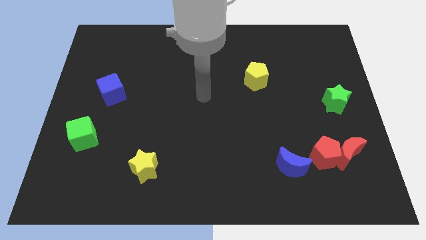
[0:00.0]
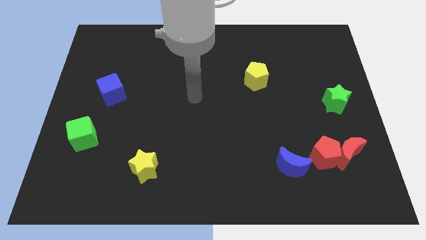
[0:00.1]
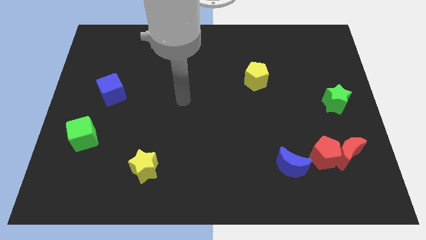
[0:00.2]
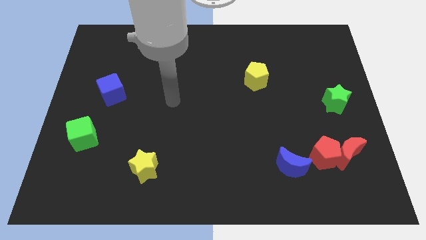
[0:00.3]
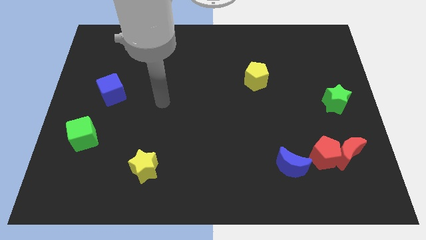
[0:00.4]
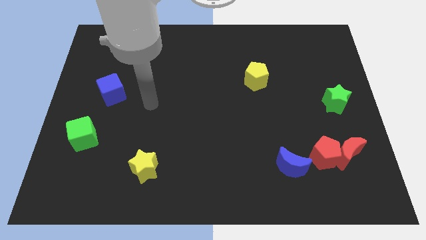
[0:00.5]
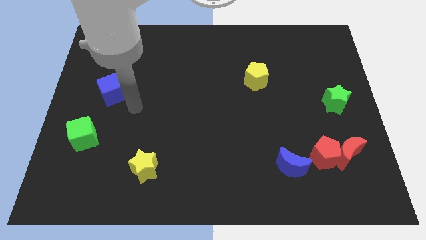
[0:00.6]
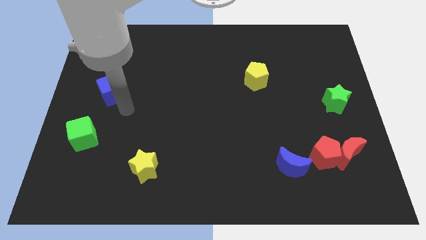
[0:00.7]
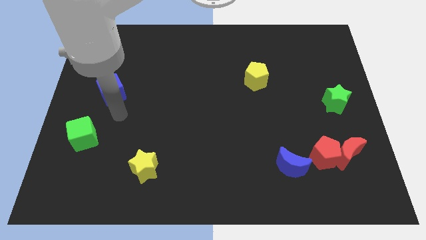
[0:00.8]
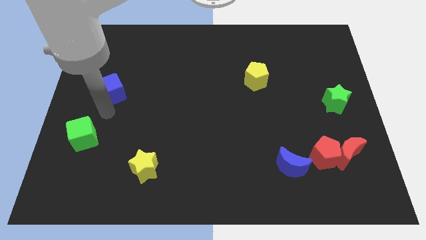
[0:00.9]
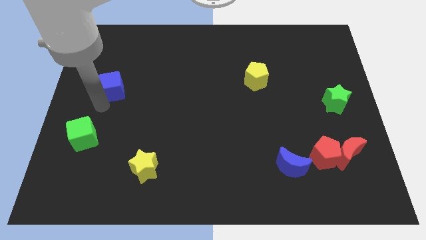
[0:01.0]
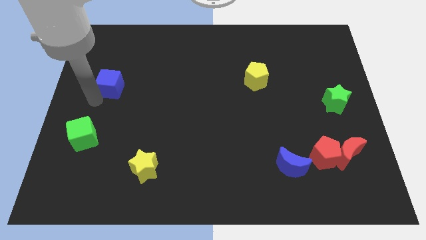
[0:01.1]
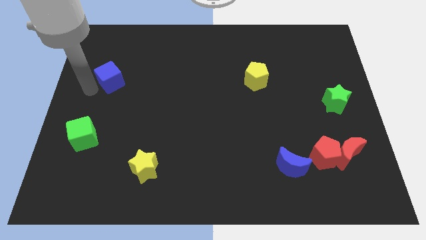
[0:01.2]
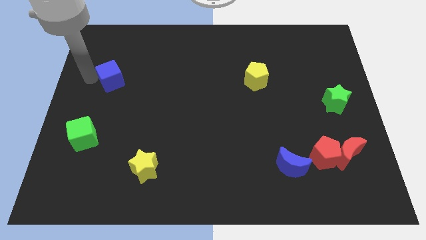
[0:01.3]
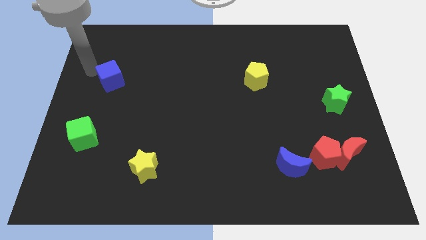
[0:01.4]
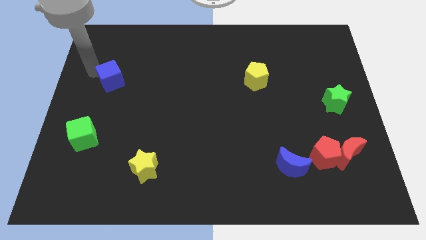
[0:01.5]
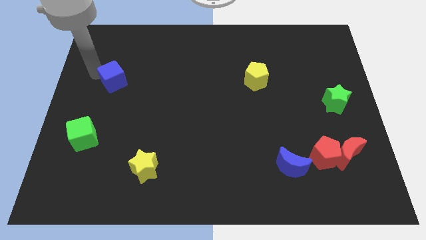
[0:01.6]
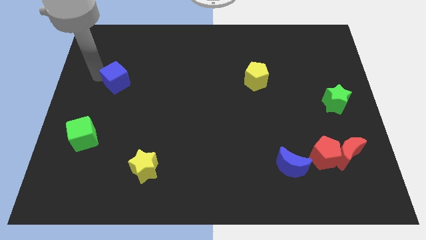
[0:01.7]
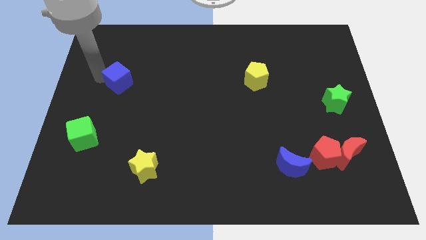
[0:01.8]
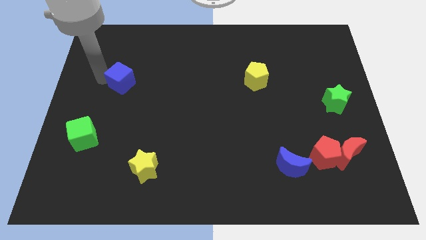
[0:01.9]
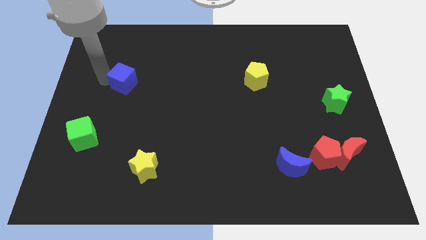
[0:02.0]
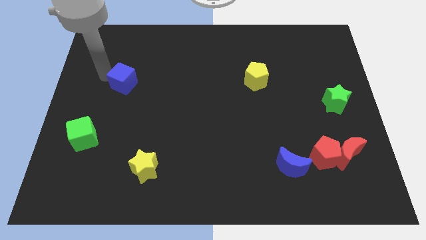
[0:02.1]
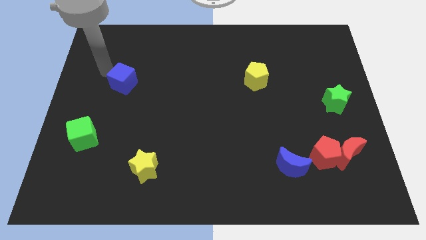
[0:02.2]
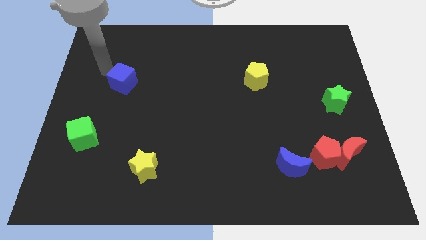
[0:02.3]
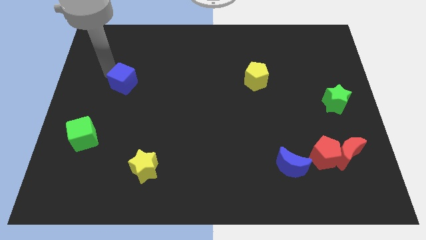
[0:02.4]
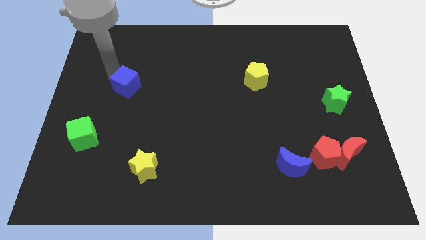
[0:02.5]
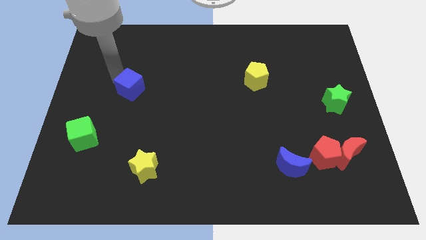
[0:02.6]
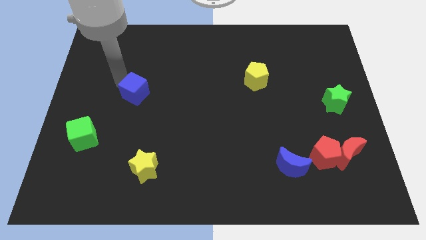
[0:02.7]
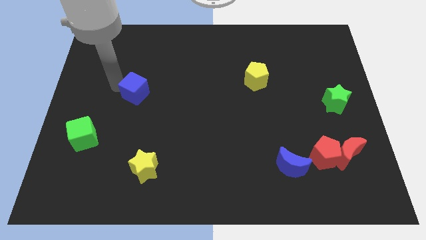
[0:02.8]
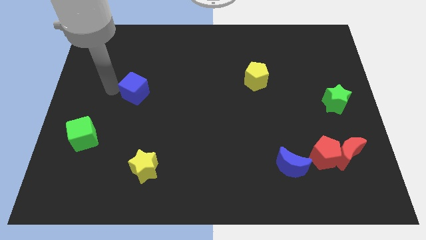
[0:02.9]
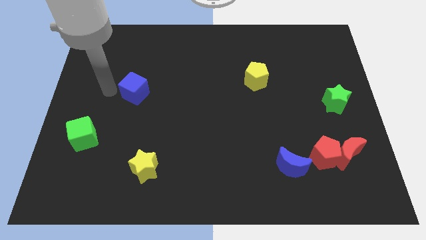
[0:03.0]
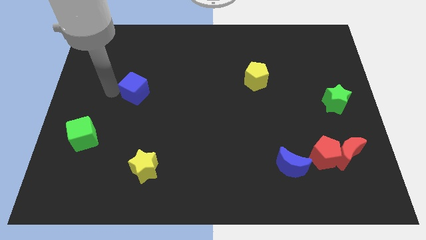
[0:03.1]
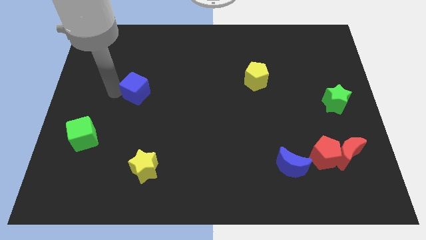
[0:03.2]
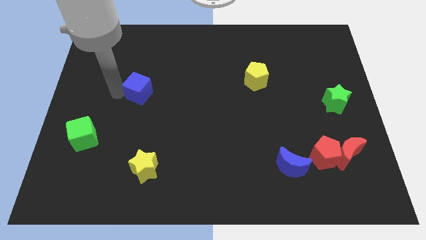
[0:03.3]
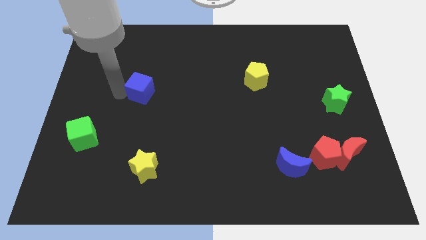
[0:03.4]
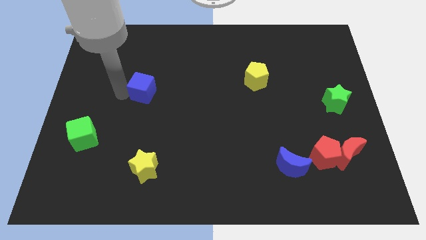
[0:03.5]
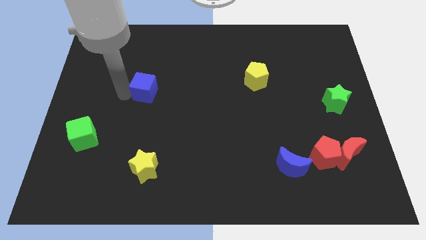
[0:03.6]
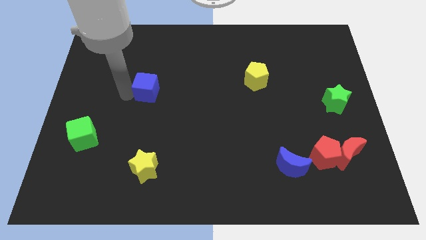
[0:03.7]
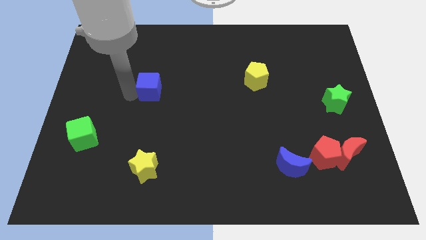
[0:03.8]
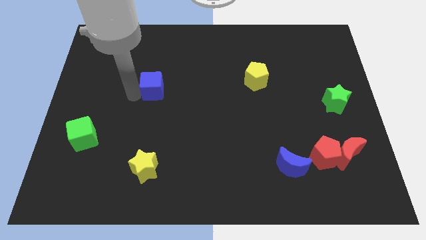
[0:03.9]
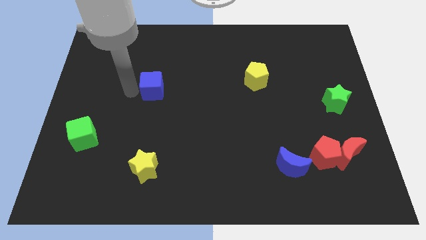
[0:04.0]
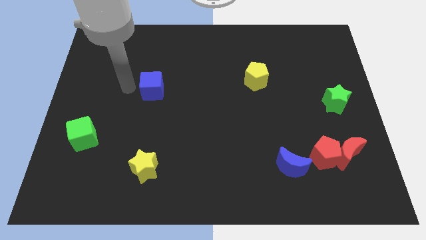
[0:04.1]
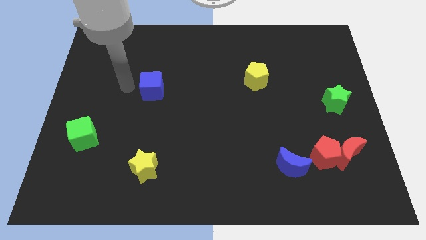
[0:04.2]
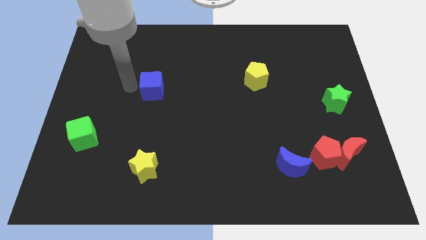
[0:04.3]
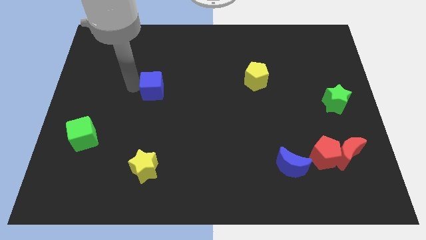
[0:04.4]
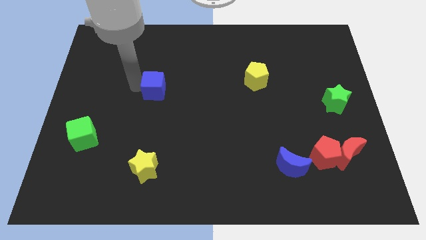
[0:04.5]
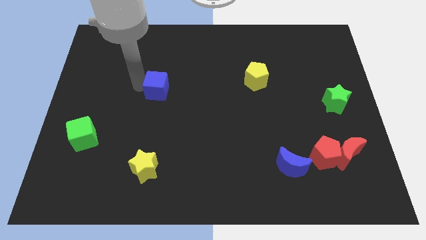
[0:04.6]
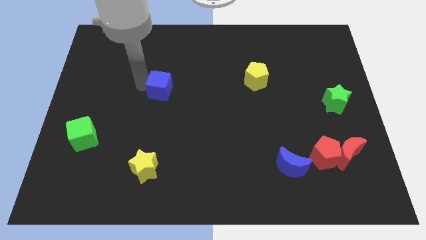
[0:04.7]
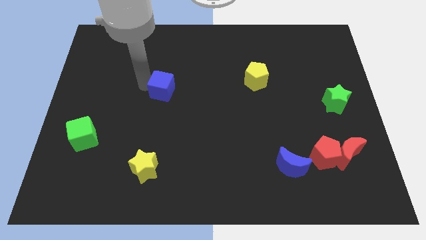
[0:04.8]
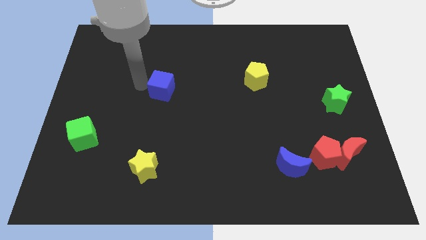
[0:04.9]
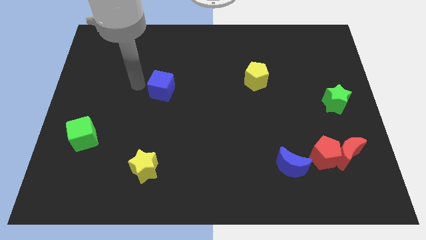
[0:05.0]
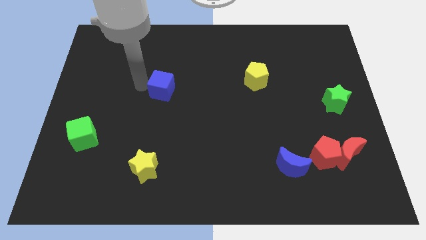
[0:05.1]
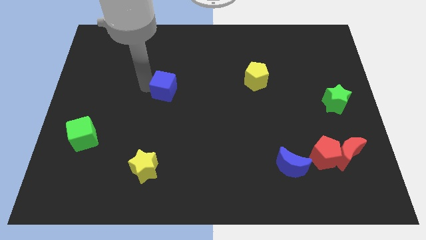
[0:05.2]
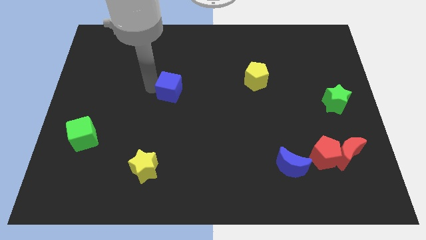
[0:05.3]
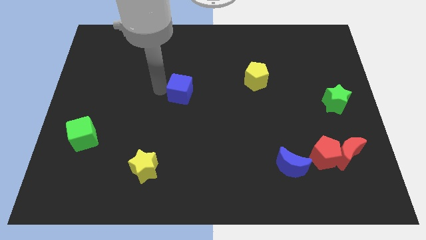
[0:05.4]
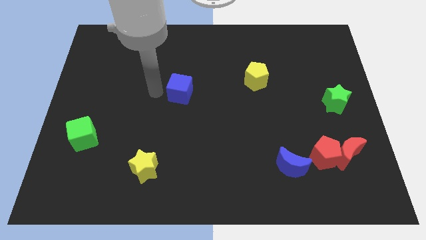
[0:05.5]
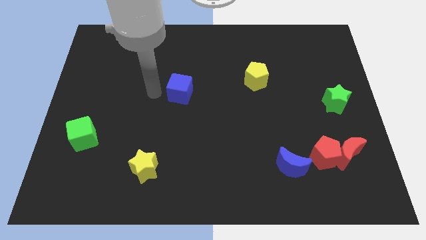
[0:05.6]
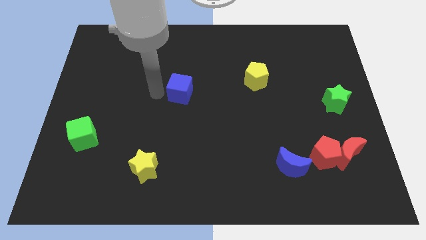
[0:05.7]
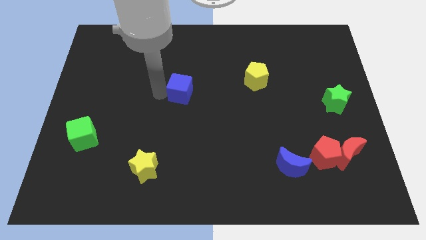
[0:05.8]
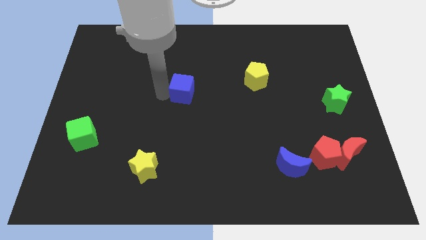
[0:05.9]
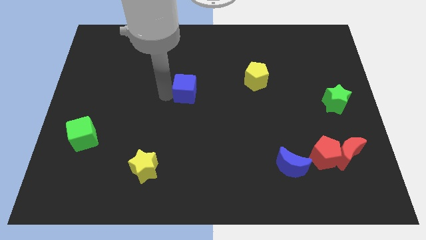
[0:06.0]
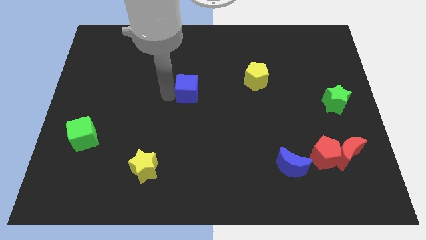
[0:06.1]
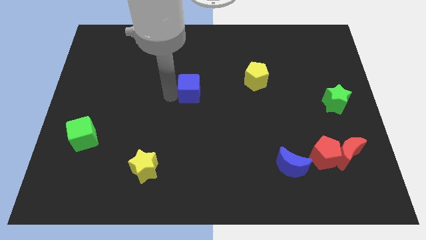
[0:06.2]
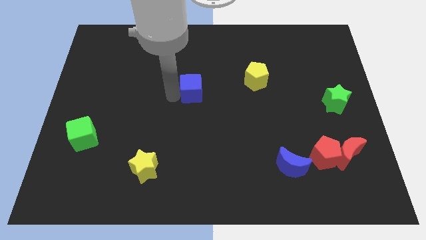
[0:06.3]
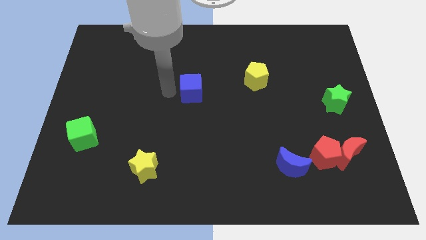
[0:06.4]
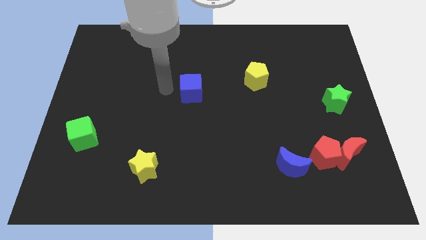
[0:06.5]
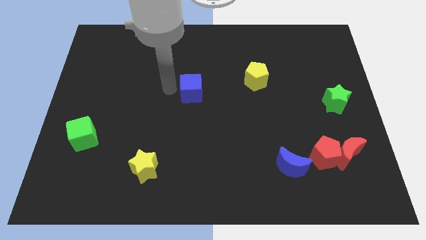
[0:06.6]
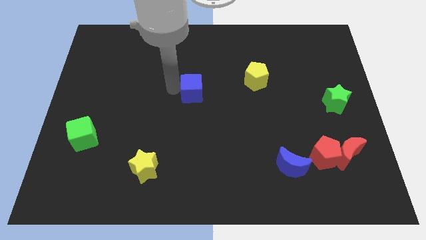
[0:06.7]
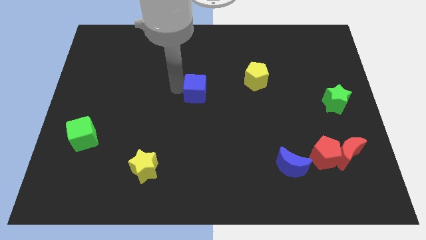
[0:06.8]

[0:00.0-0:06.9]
move the blue cube right

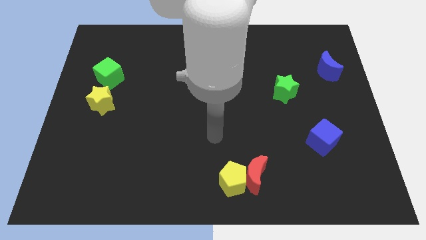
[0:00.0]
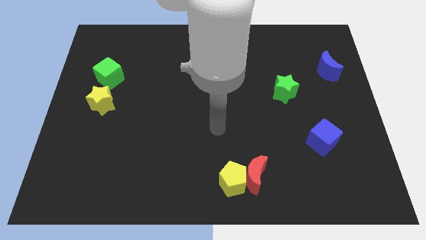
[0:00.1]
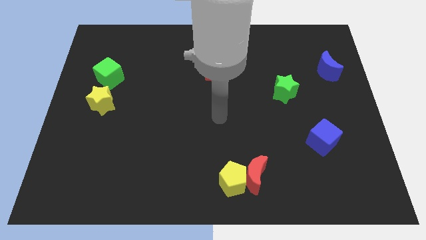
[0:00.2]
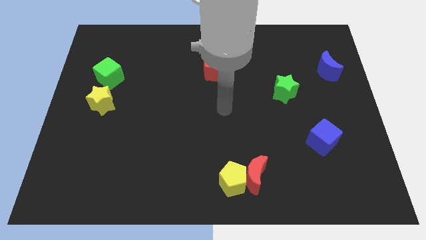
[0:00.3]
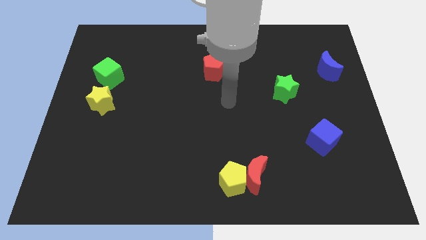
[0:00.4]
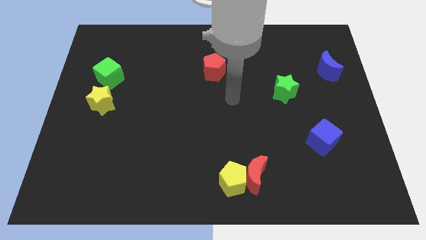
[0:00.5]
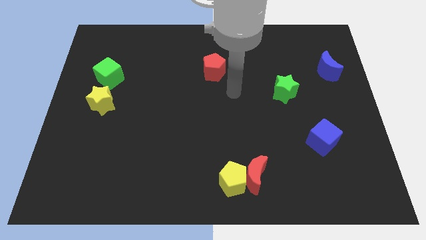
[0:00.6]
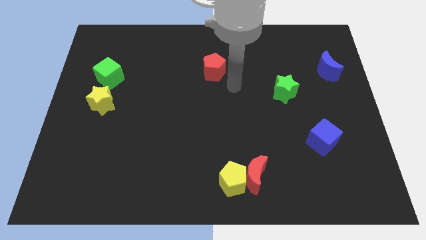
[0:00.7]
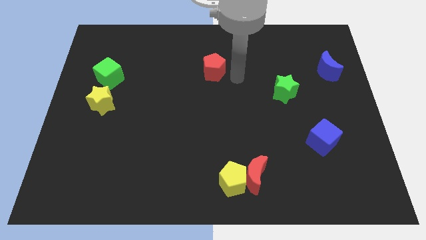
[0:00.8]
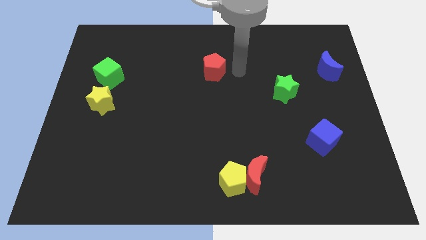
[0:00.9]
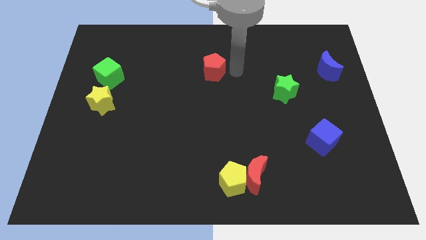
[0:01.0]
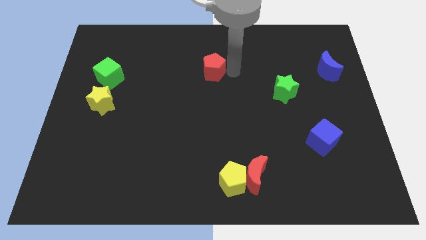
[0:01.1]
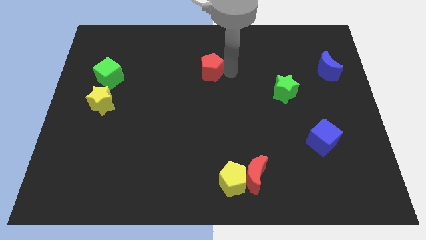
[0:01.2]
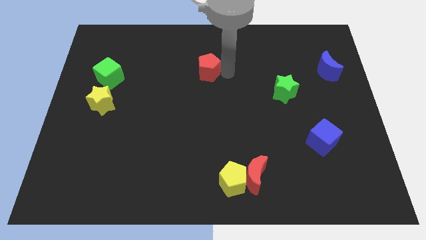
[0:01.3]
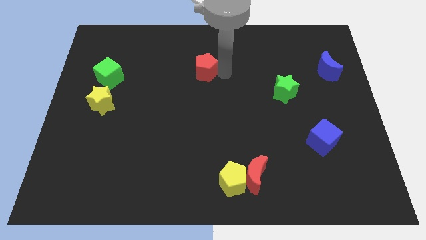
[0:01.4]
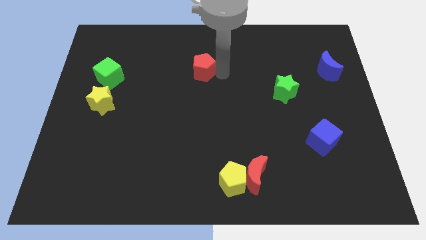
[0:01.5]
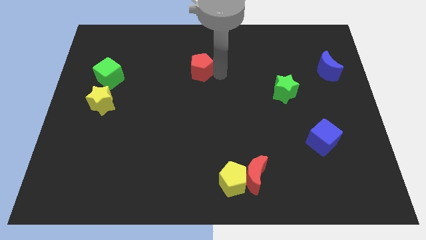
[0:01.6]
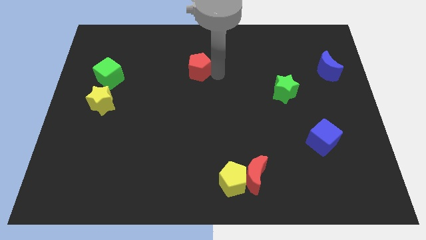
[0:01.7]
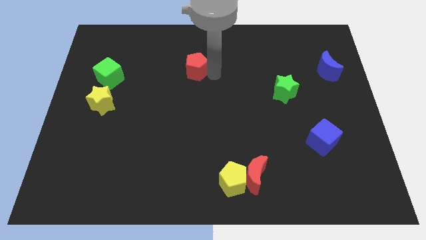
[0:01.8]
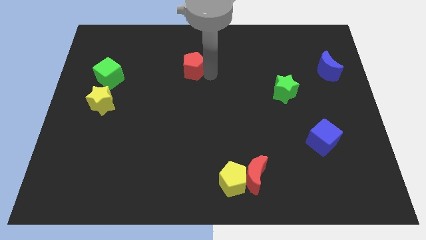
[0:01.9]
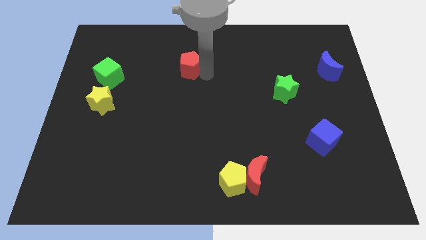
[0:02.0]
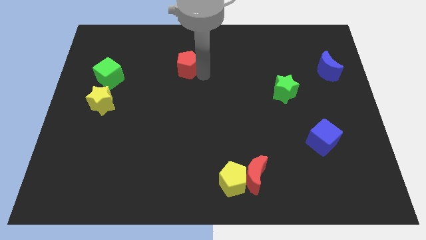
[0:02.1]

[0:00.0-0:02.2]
push the red pentagon left a little
